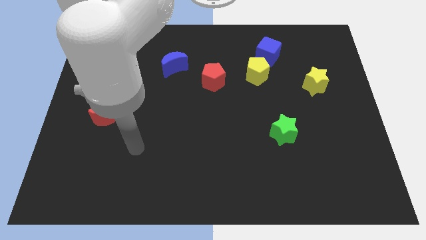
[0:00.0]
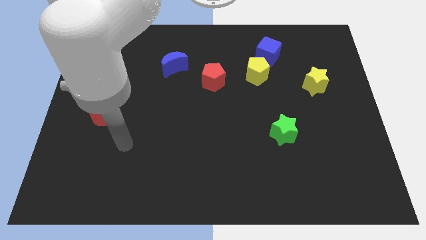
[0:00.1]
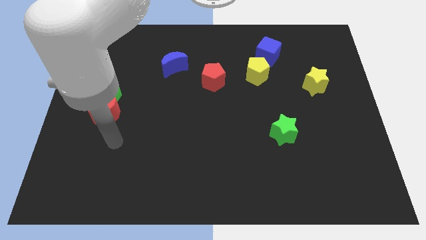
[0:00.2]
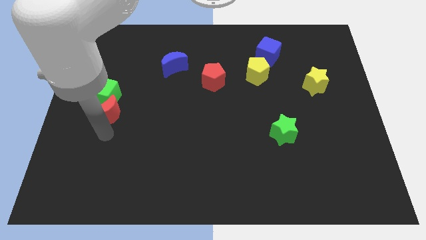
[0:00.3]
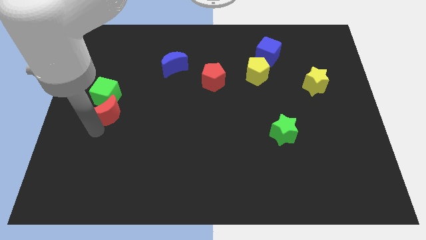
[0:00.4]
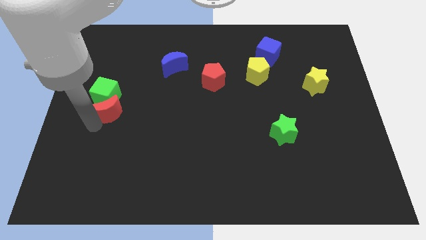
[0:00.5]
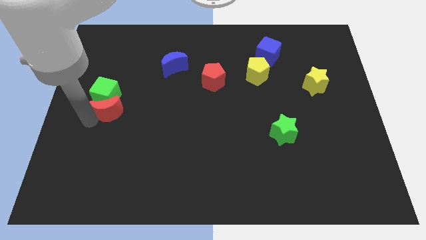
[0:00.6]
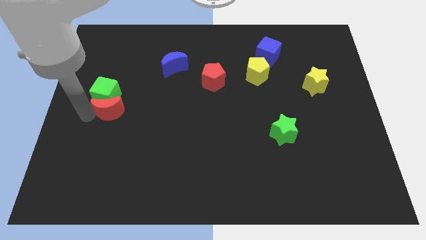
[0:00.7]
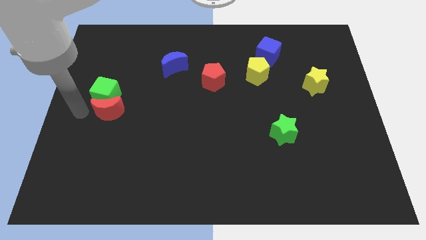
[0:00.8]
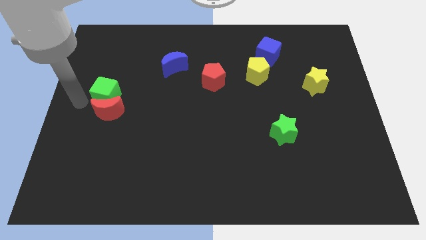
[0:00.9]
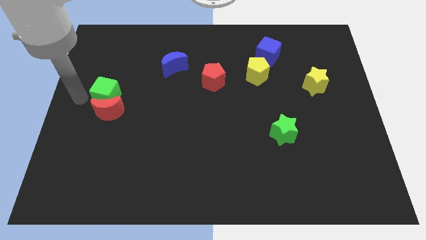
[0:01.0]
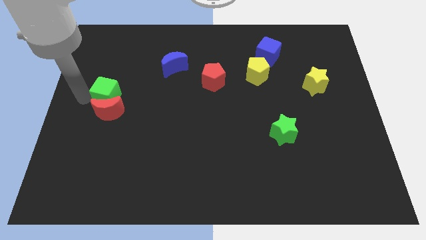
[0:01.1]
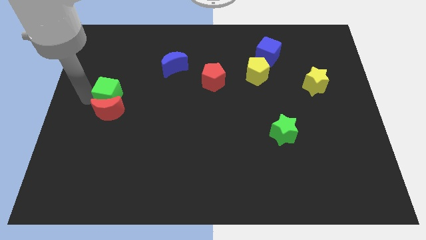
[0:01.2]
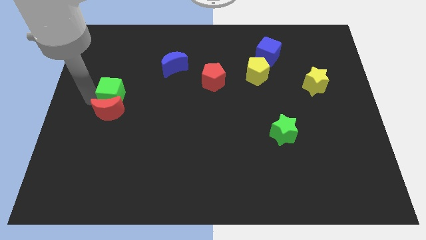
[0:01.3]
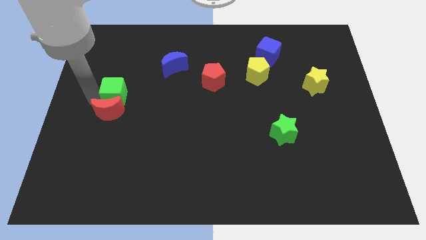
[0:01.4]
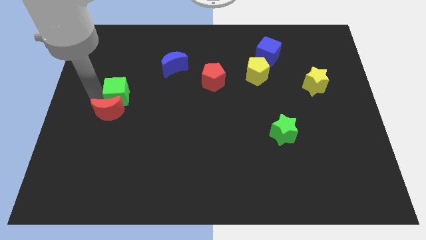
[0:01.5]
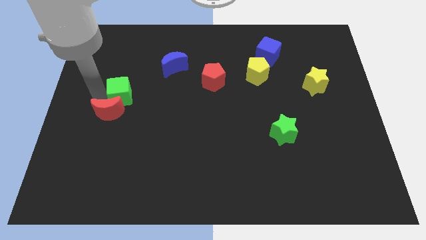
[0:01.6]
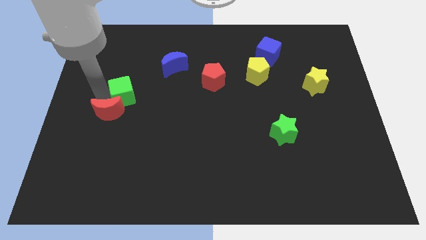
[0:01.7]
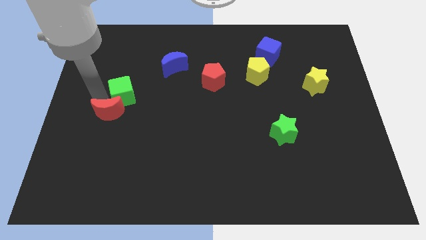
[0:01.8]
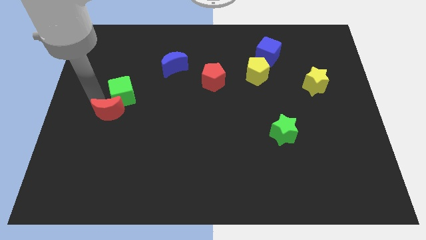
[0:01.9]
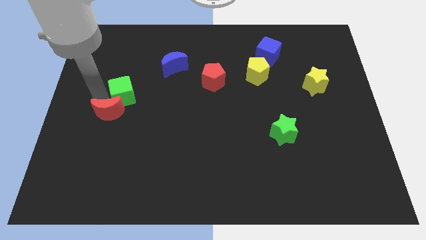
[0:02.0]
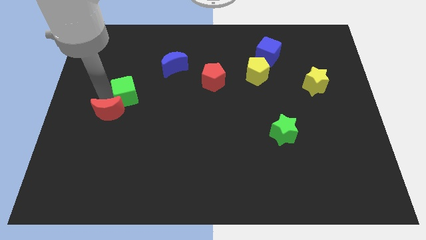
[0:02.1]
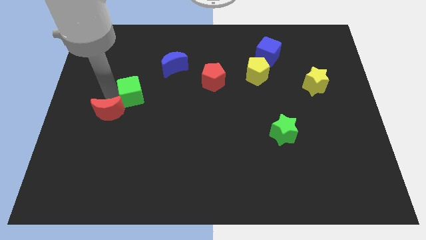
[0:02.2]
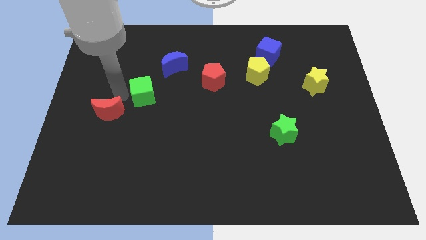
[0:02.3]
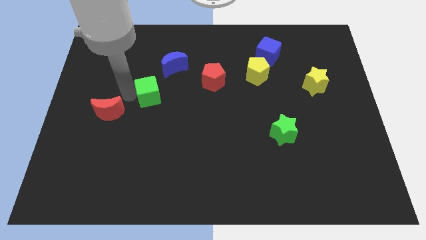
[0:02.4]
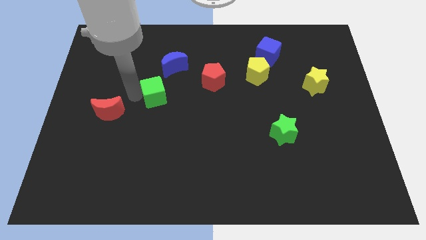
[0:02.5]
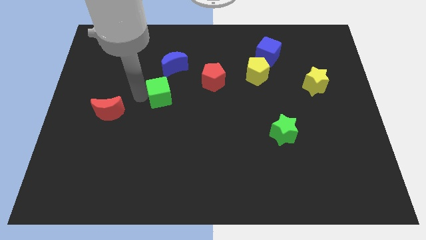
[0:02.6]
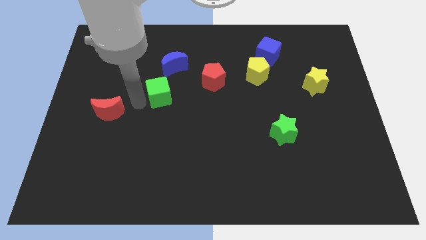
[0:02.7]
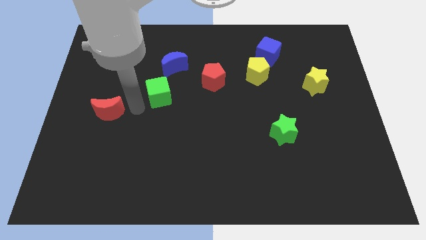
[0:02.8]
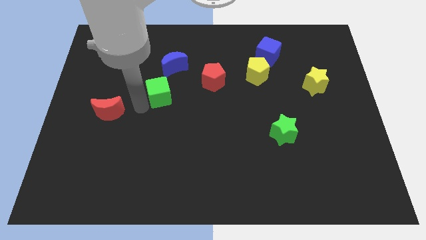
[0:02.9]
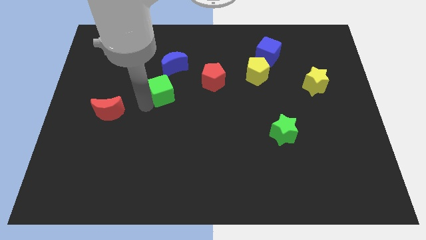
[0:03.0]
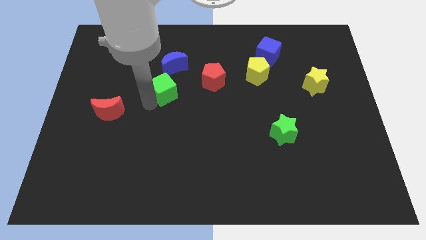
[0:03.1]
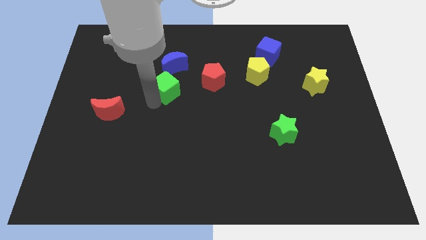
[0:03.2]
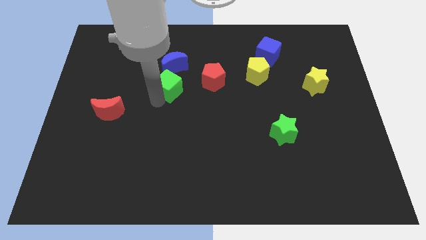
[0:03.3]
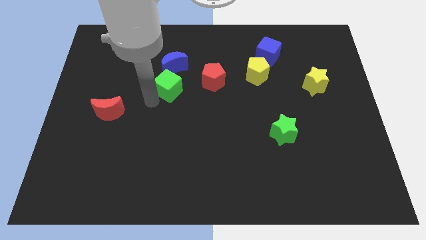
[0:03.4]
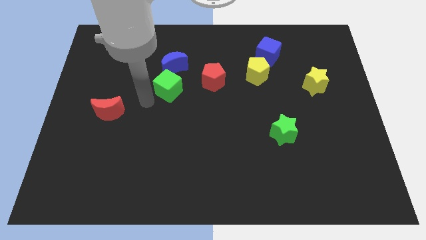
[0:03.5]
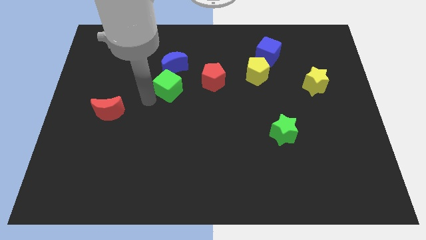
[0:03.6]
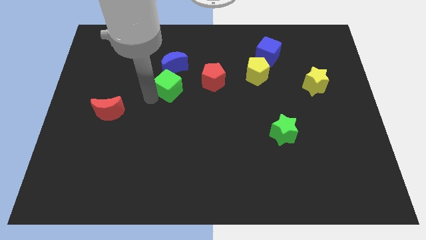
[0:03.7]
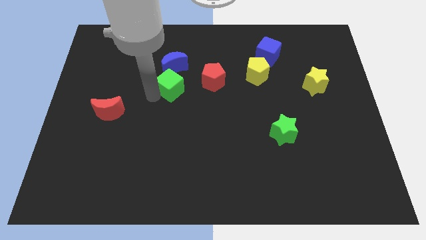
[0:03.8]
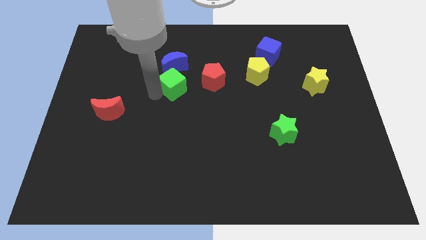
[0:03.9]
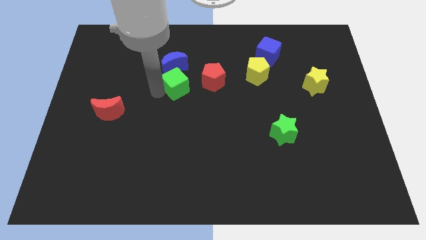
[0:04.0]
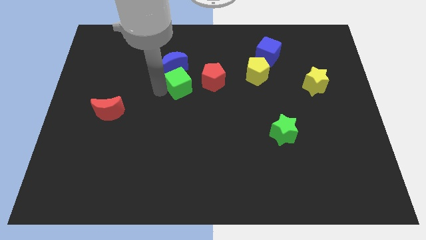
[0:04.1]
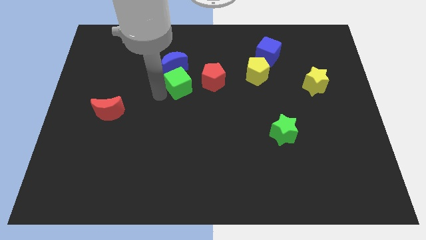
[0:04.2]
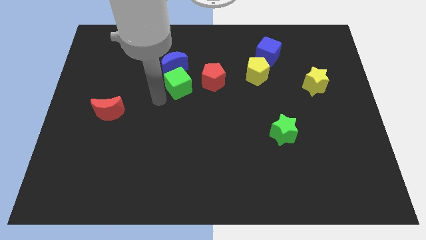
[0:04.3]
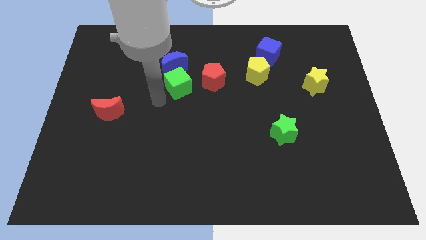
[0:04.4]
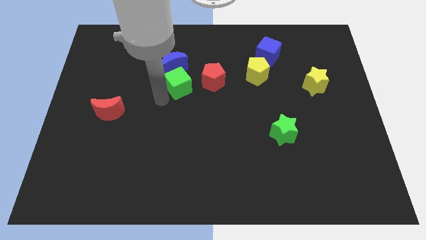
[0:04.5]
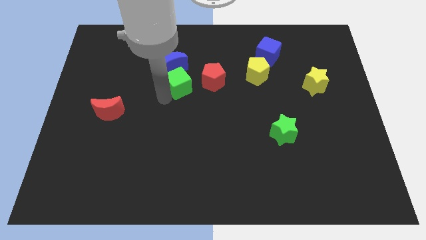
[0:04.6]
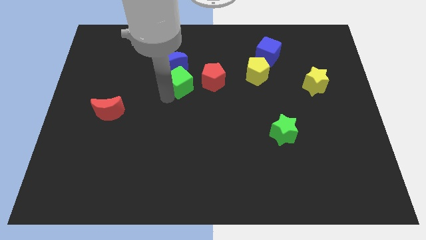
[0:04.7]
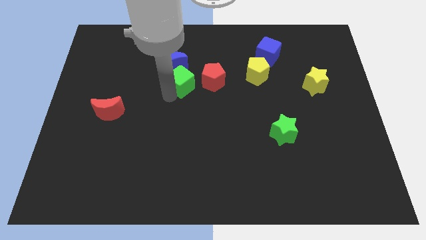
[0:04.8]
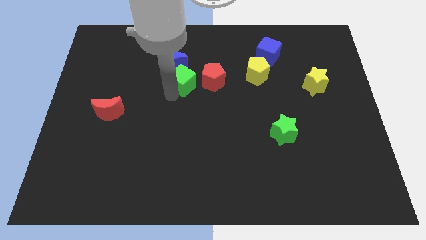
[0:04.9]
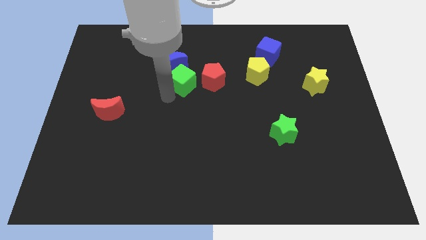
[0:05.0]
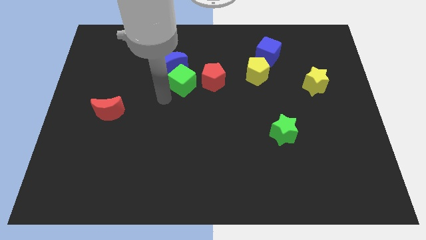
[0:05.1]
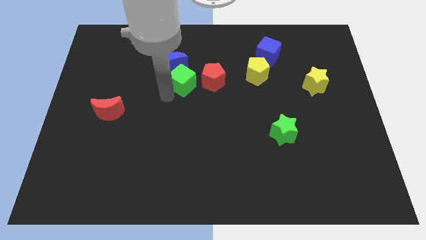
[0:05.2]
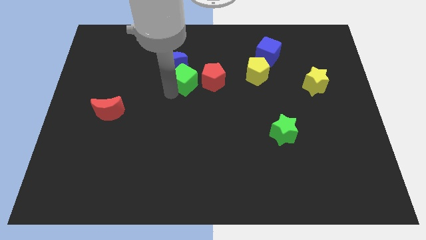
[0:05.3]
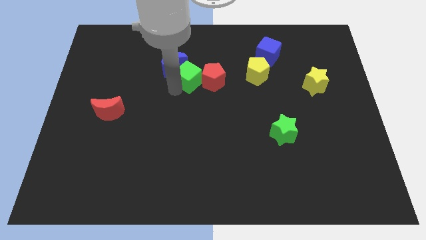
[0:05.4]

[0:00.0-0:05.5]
push the green cube to the right side of the blue moon

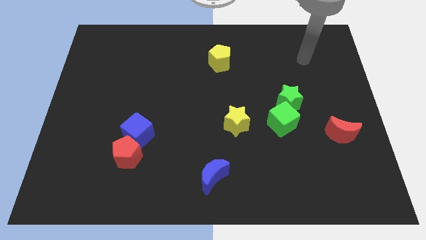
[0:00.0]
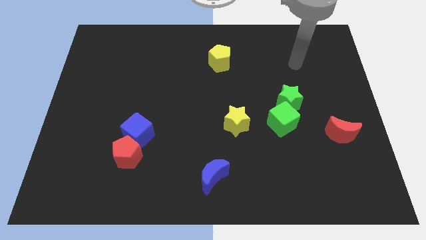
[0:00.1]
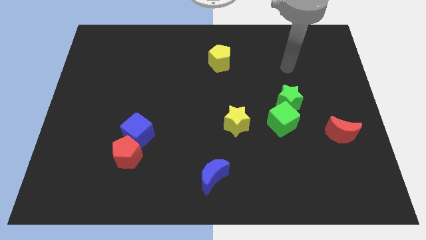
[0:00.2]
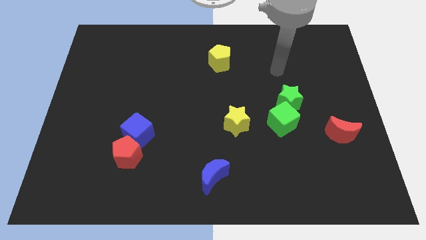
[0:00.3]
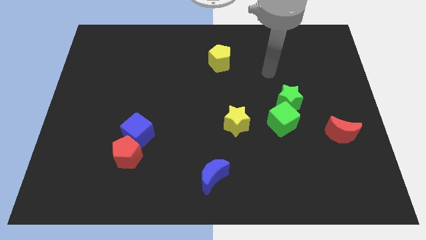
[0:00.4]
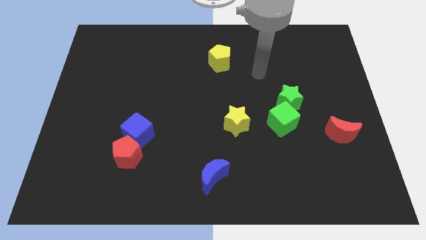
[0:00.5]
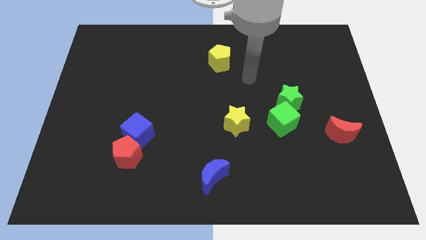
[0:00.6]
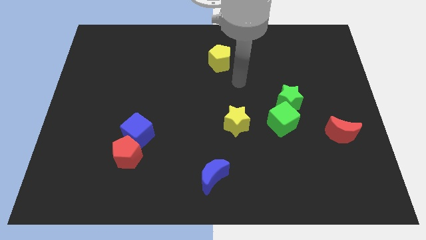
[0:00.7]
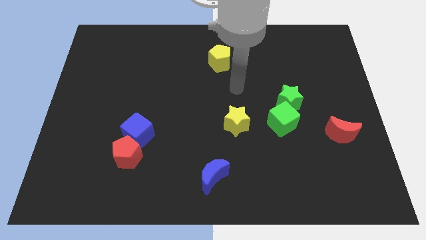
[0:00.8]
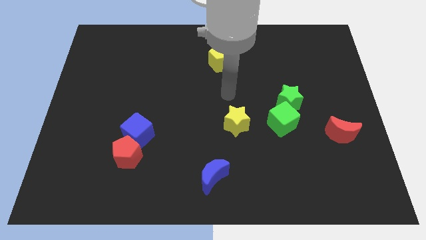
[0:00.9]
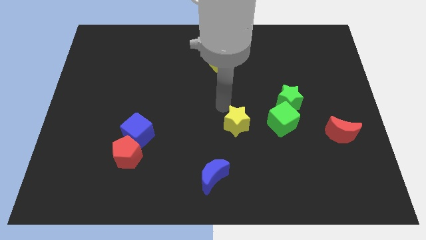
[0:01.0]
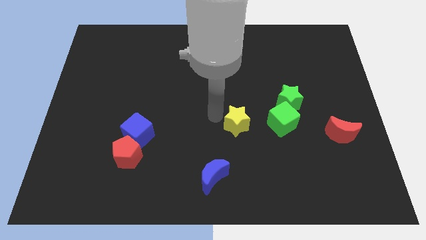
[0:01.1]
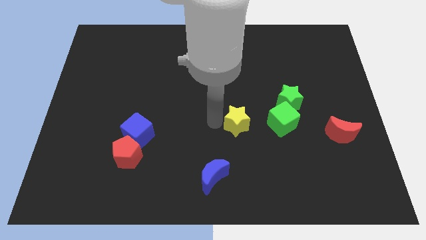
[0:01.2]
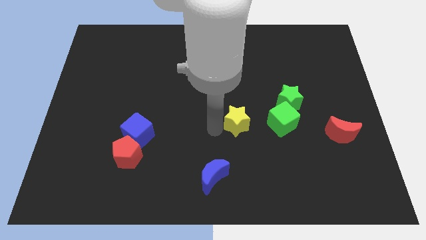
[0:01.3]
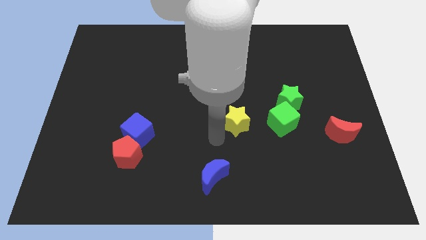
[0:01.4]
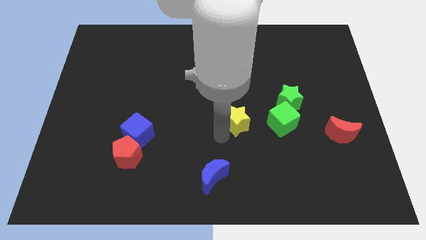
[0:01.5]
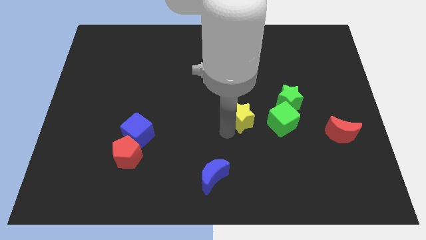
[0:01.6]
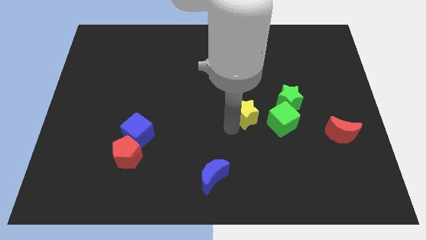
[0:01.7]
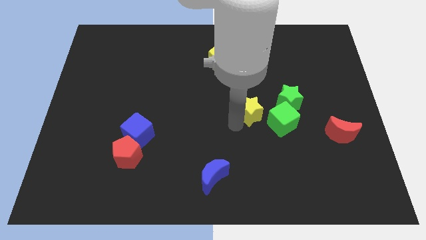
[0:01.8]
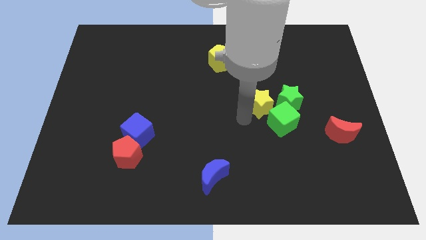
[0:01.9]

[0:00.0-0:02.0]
move the yellow star to the top of the green cube

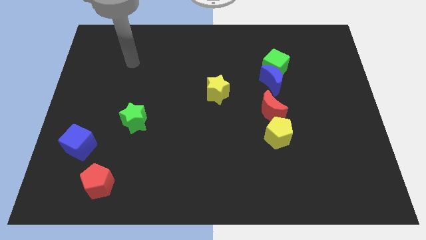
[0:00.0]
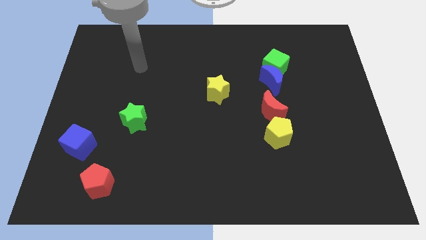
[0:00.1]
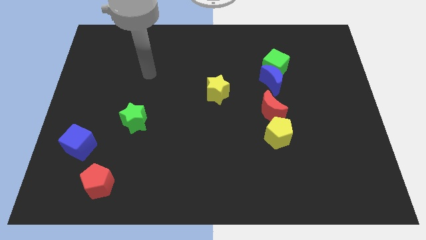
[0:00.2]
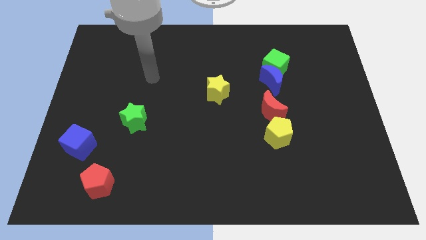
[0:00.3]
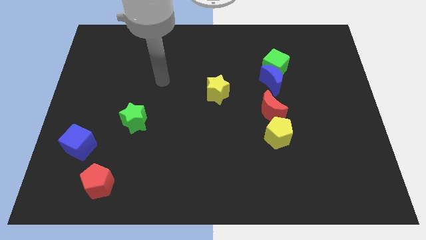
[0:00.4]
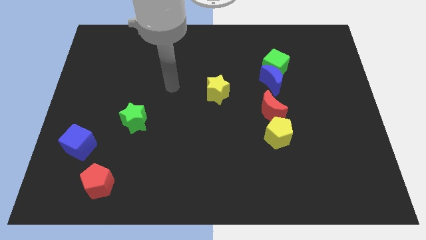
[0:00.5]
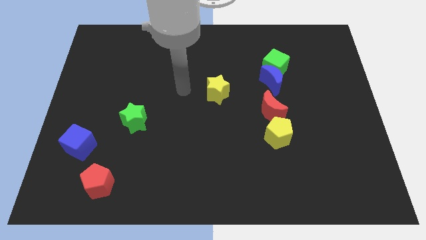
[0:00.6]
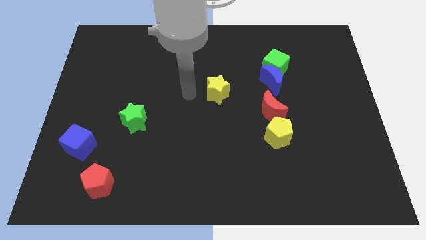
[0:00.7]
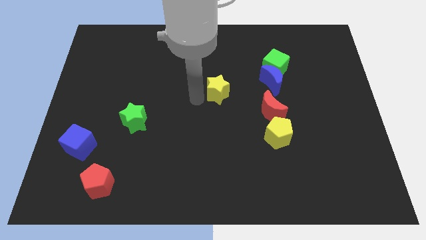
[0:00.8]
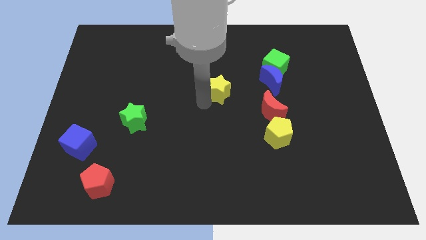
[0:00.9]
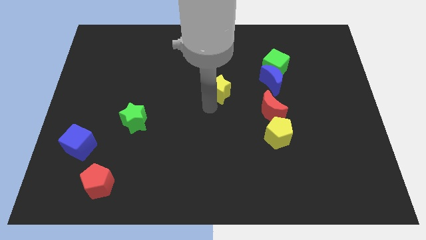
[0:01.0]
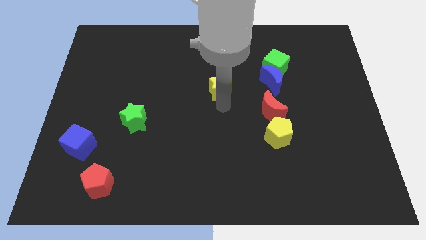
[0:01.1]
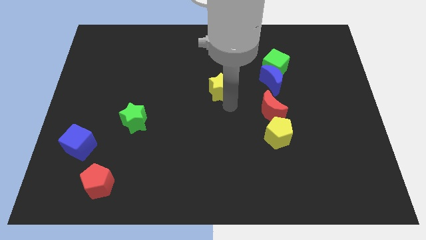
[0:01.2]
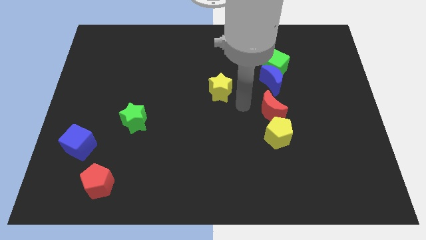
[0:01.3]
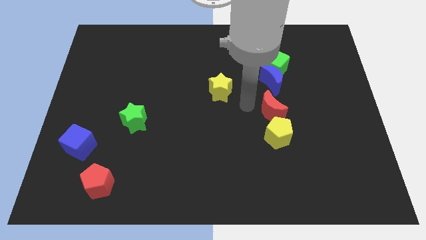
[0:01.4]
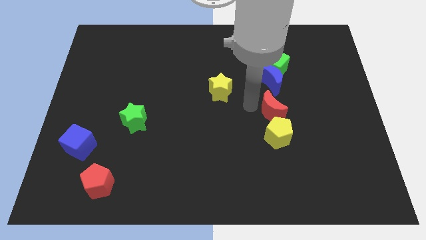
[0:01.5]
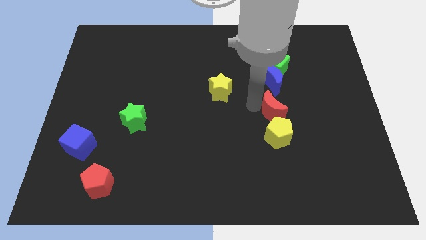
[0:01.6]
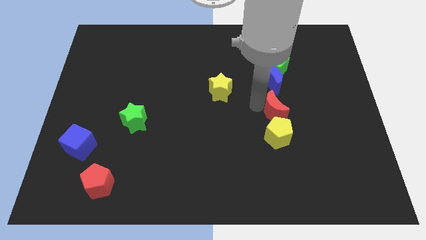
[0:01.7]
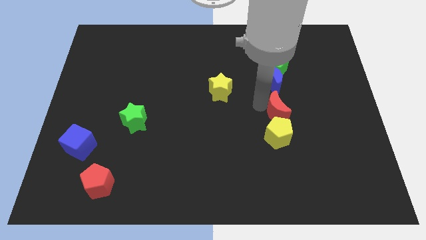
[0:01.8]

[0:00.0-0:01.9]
slide the red moon diagonally up and to the right of the yellow pentagon
